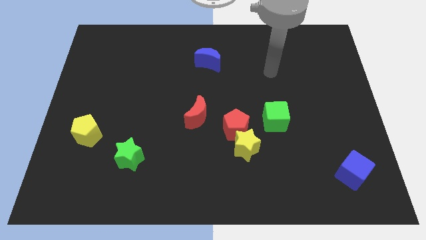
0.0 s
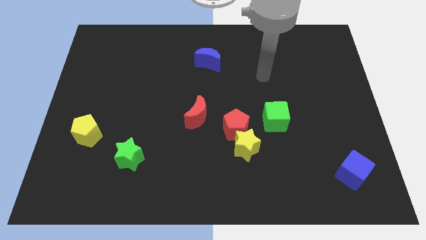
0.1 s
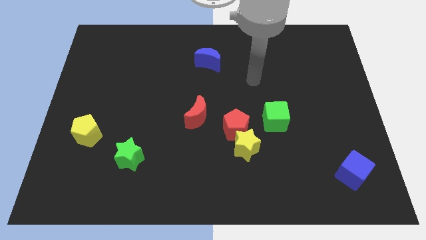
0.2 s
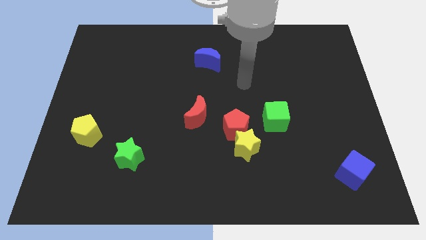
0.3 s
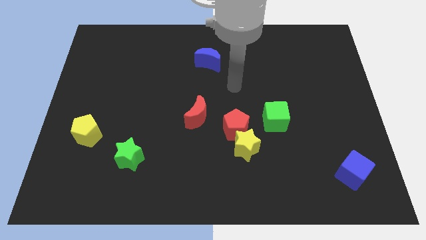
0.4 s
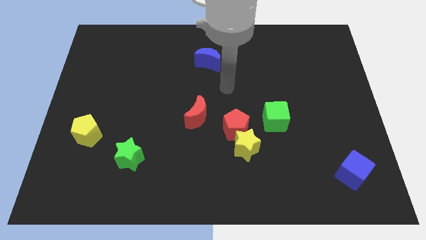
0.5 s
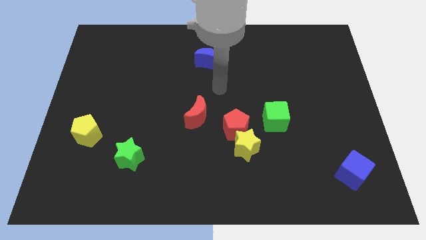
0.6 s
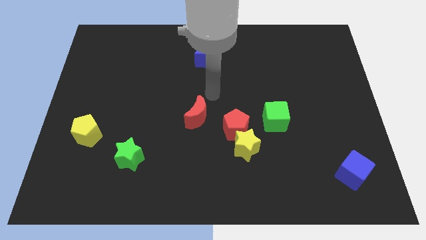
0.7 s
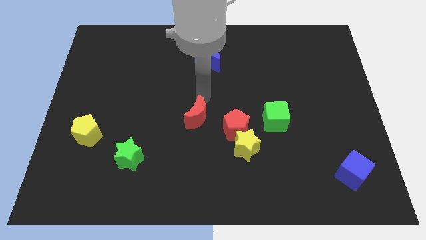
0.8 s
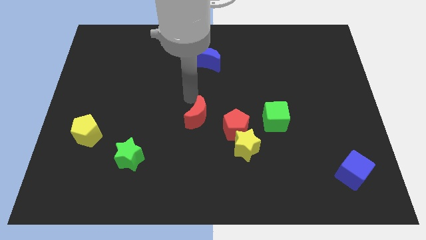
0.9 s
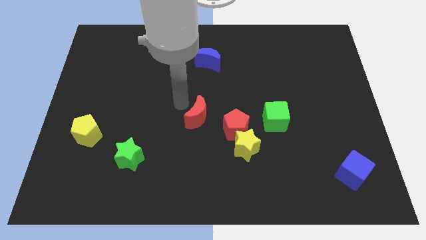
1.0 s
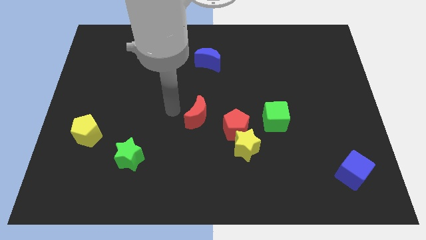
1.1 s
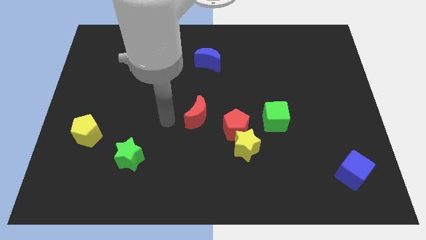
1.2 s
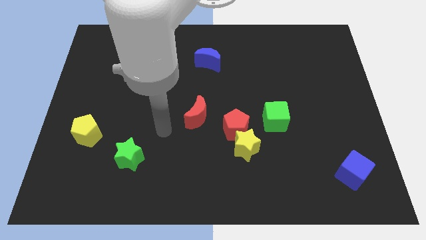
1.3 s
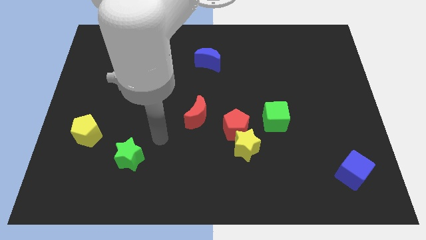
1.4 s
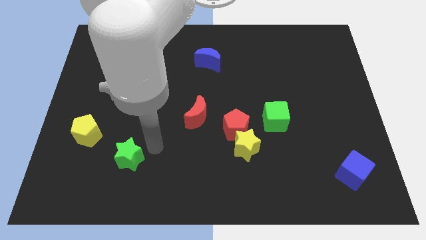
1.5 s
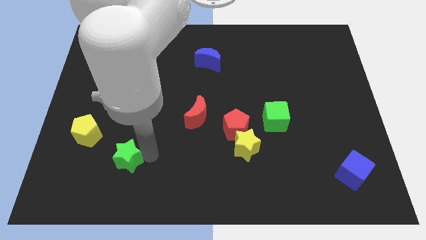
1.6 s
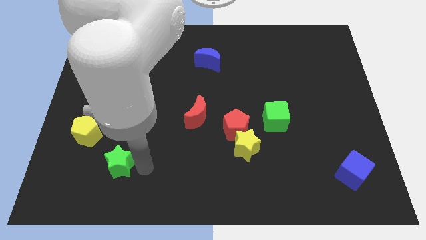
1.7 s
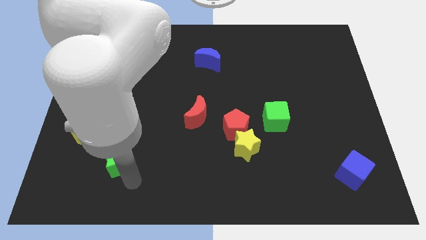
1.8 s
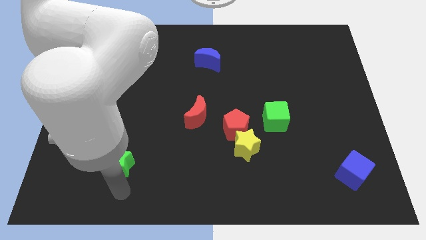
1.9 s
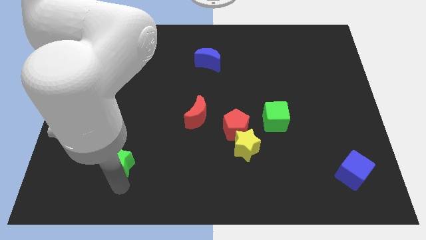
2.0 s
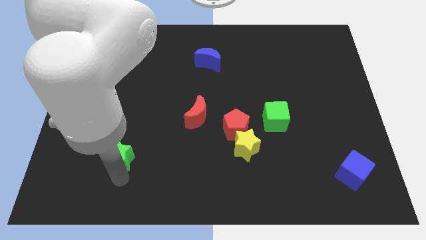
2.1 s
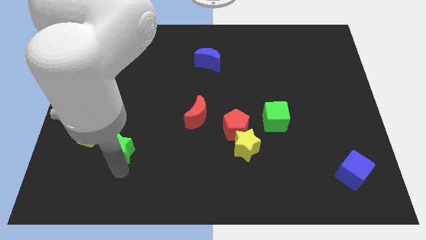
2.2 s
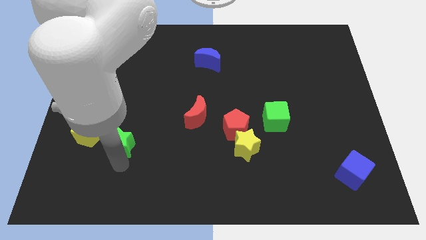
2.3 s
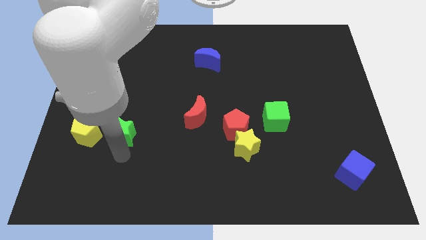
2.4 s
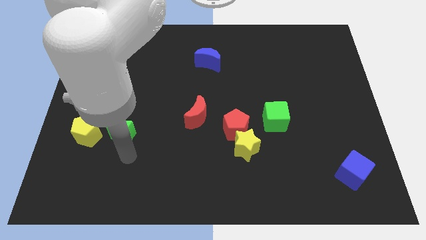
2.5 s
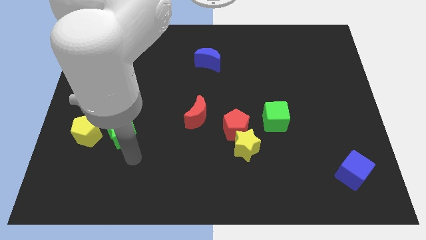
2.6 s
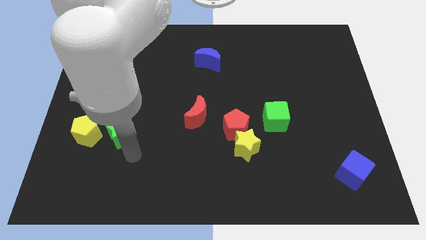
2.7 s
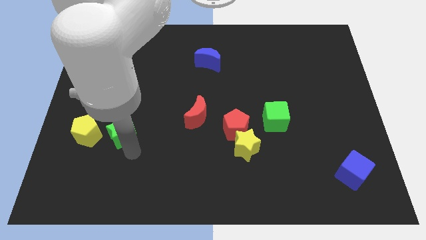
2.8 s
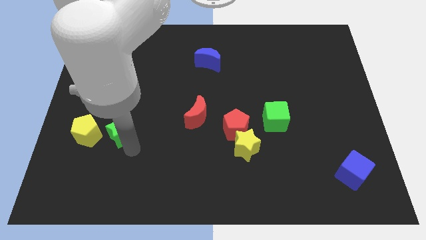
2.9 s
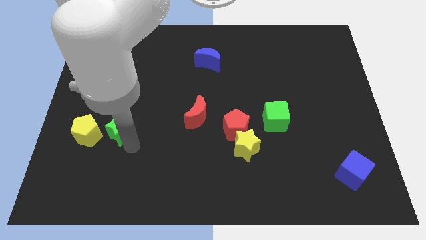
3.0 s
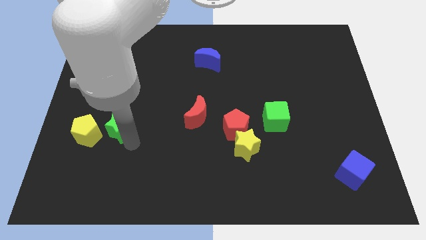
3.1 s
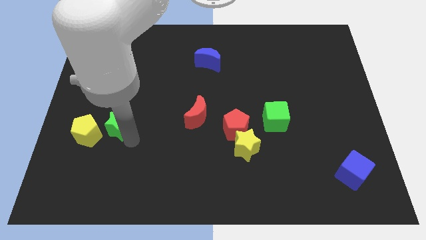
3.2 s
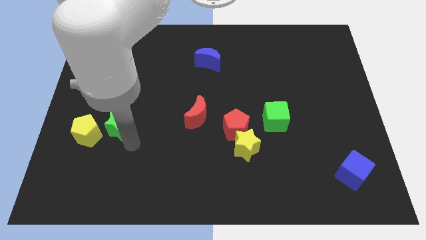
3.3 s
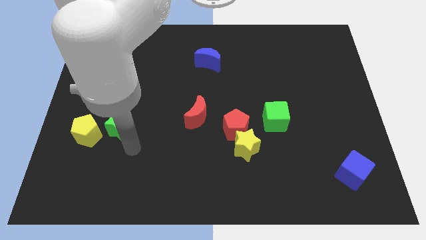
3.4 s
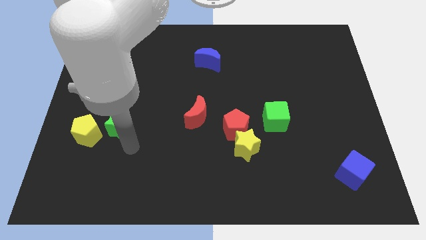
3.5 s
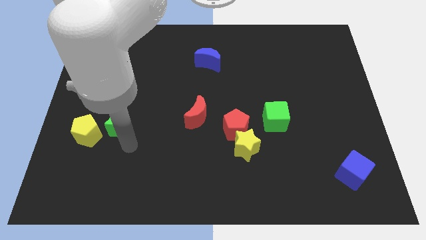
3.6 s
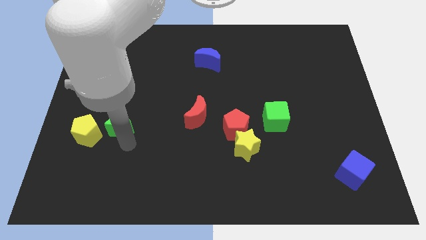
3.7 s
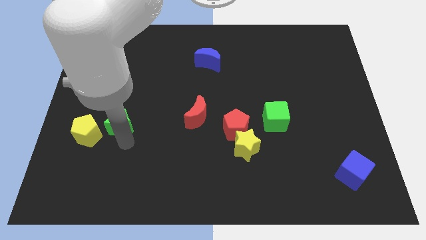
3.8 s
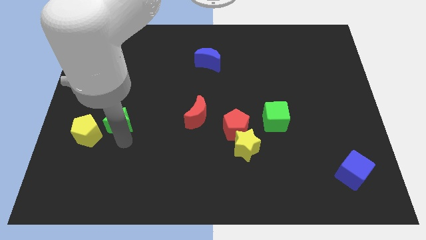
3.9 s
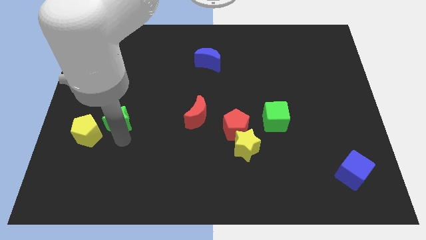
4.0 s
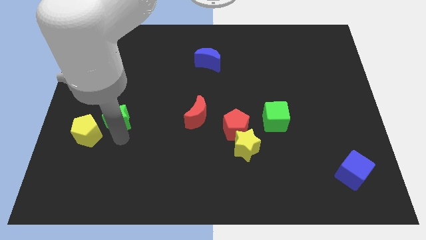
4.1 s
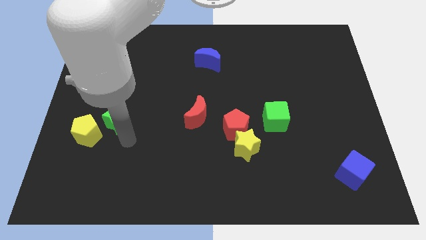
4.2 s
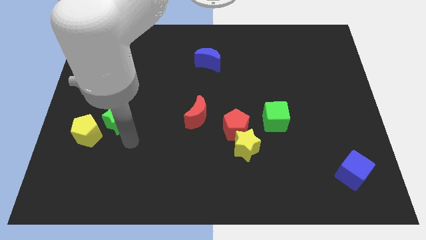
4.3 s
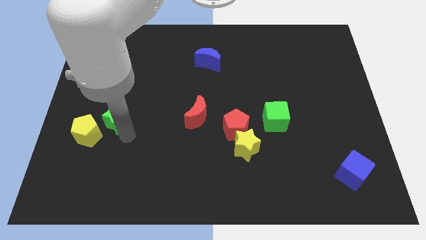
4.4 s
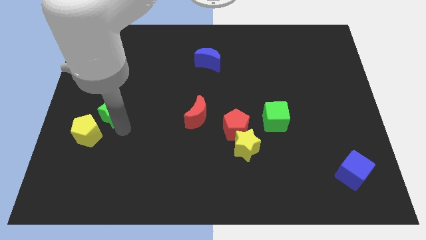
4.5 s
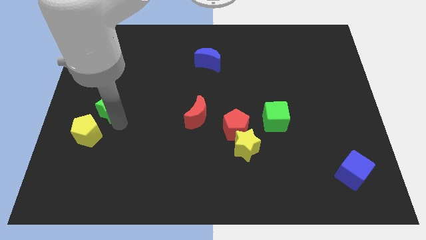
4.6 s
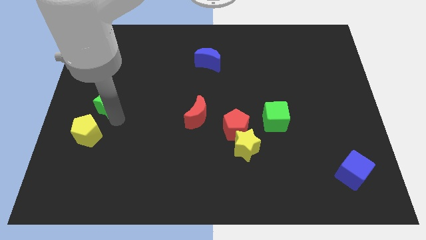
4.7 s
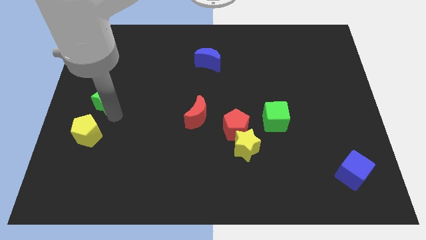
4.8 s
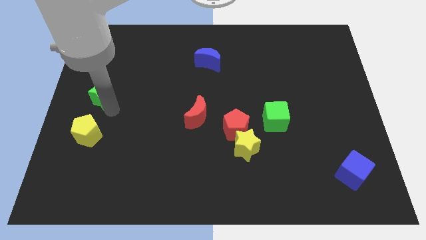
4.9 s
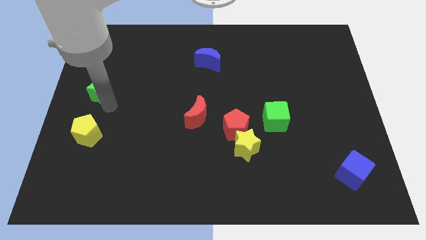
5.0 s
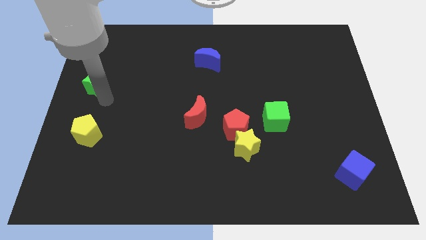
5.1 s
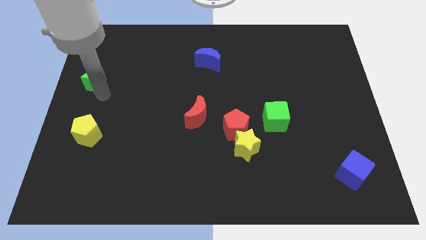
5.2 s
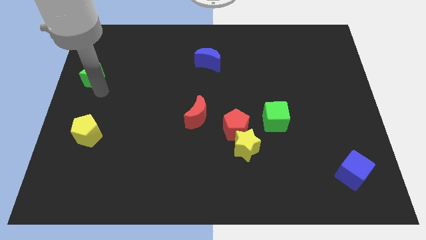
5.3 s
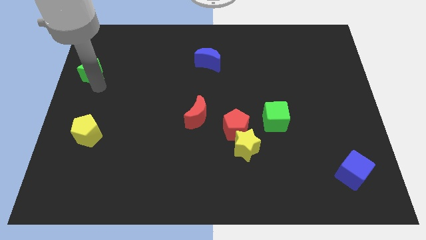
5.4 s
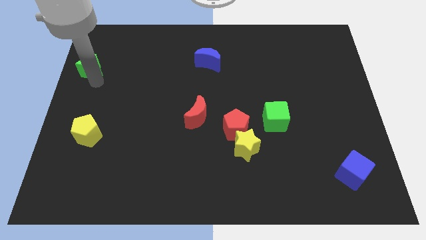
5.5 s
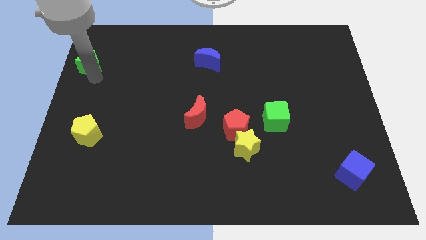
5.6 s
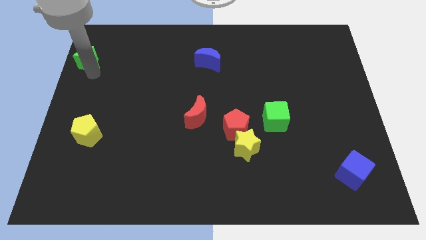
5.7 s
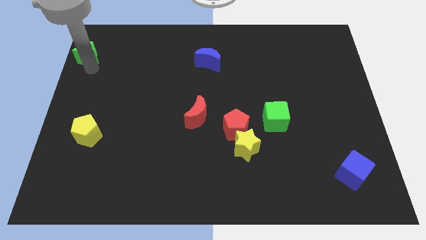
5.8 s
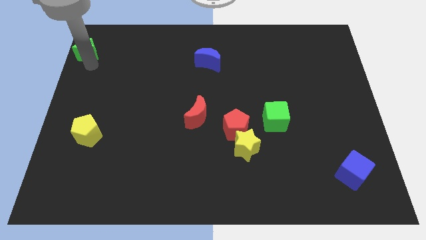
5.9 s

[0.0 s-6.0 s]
move the green star to the top left

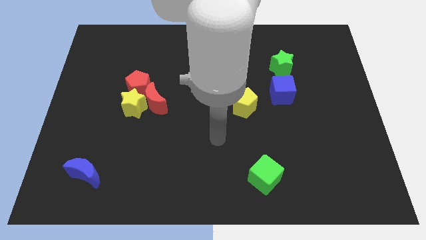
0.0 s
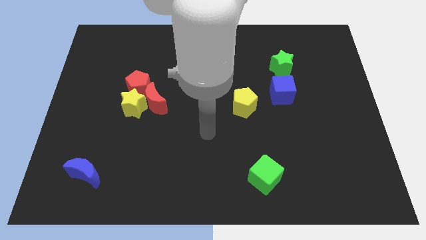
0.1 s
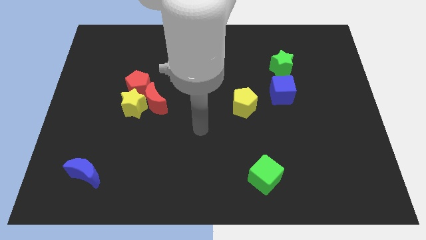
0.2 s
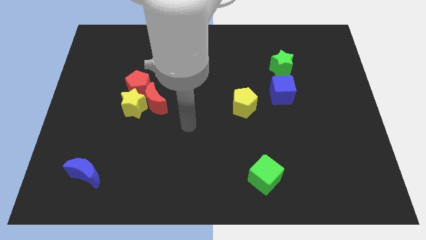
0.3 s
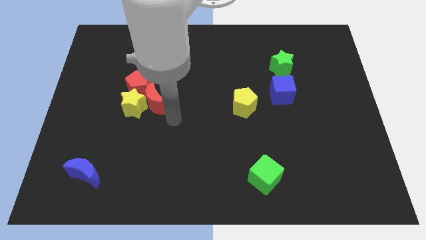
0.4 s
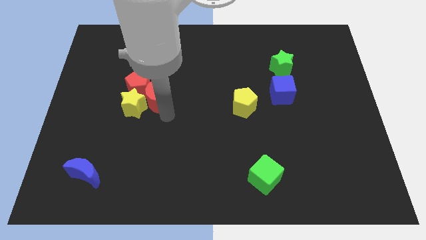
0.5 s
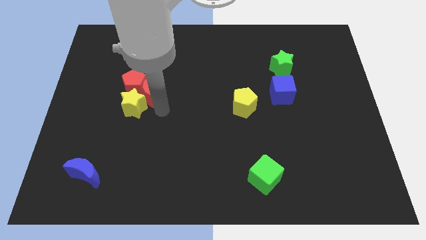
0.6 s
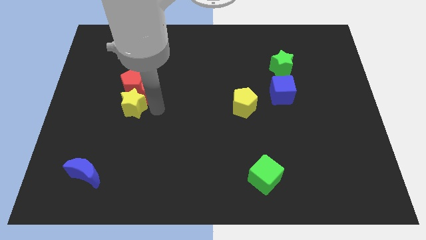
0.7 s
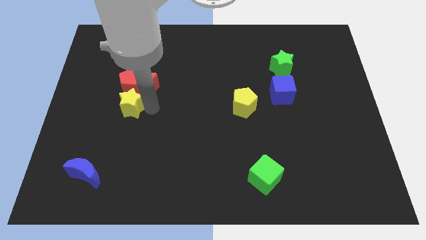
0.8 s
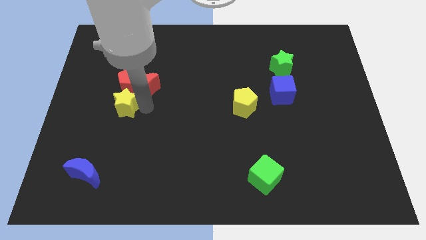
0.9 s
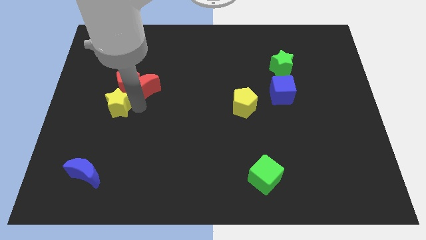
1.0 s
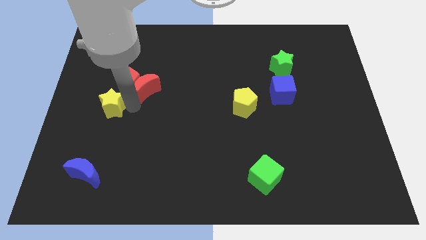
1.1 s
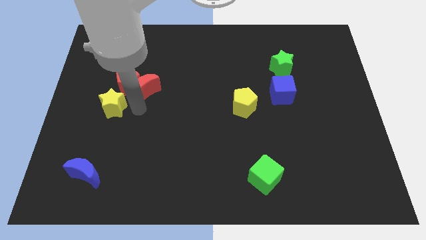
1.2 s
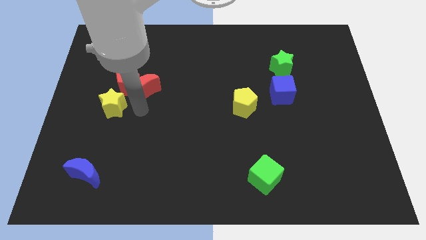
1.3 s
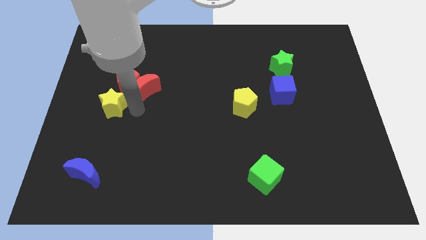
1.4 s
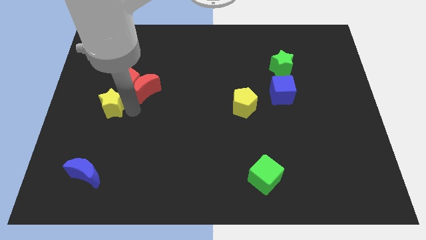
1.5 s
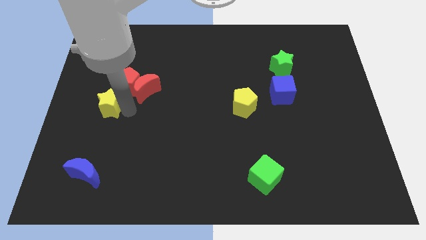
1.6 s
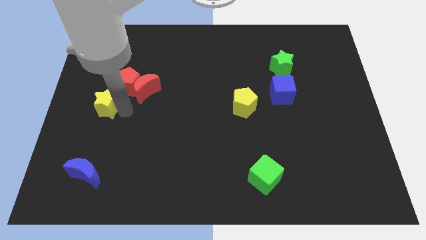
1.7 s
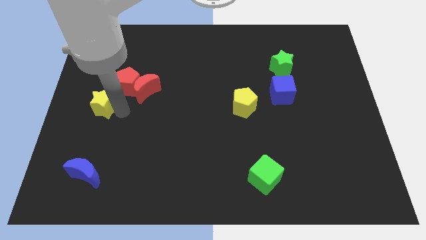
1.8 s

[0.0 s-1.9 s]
move the yellow star to the left side of the board
